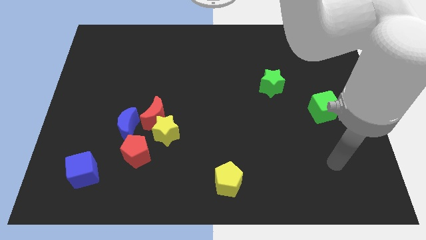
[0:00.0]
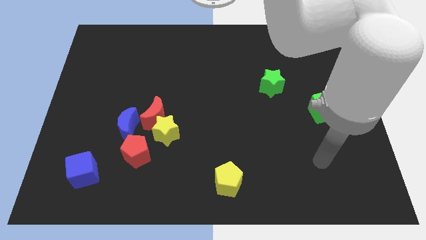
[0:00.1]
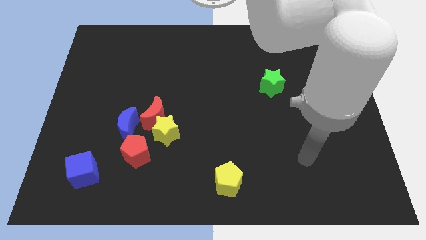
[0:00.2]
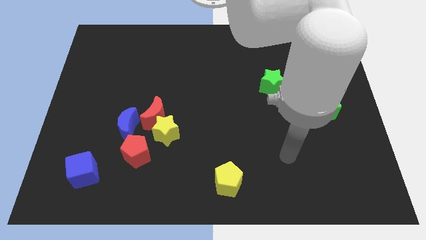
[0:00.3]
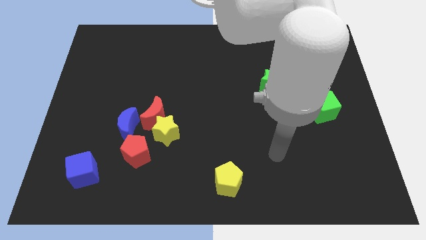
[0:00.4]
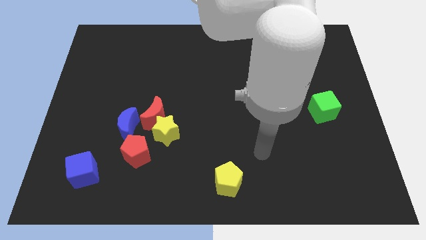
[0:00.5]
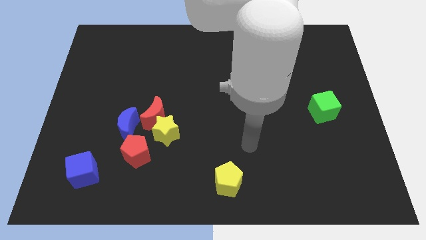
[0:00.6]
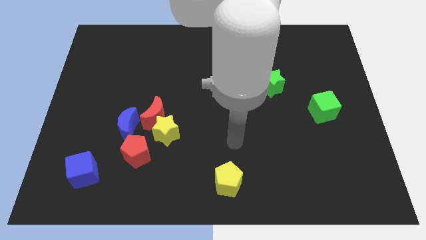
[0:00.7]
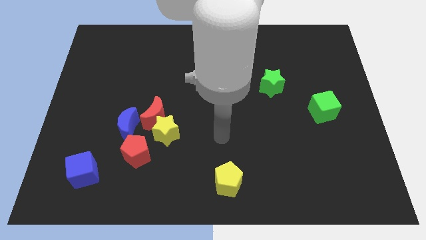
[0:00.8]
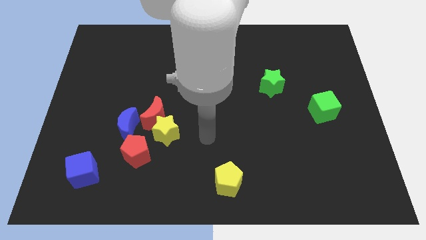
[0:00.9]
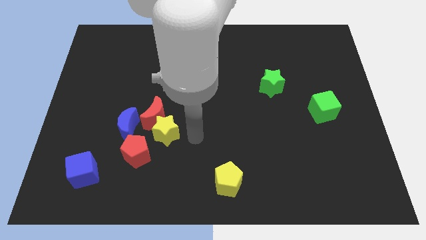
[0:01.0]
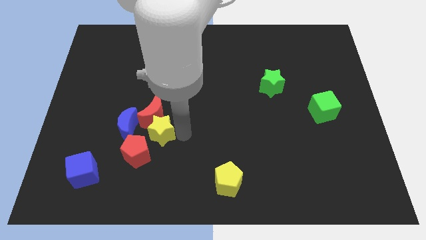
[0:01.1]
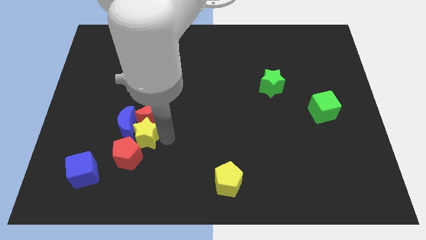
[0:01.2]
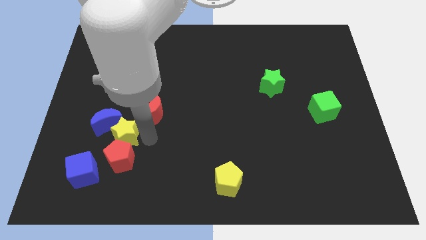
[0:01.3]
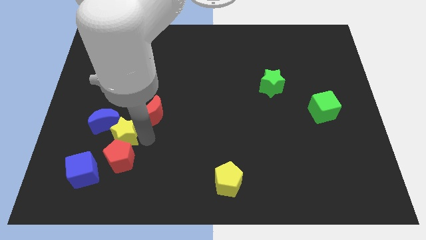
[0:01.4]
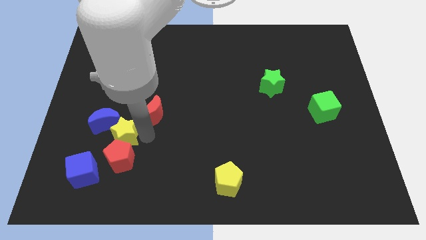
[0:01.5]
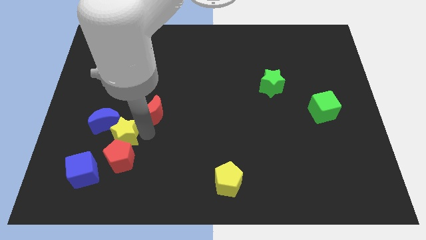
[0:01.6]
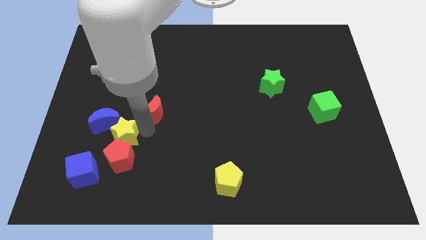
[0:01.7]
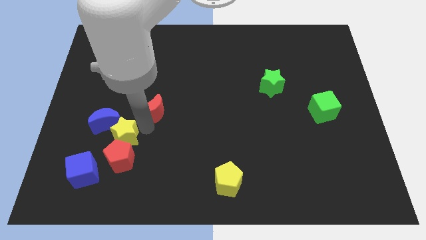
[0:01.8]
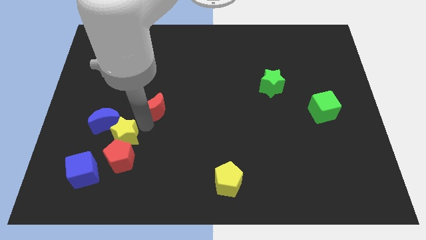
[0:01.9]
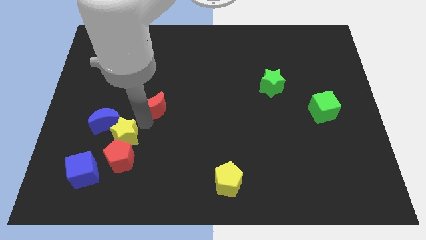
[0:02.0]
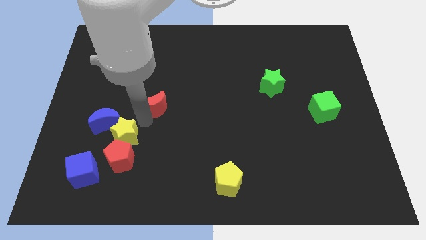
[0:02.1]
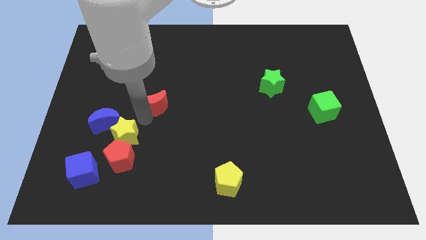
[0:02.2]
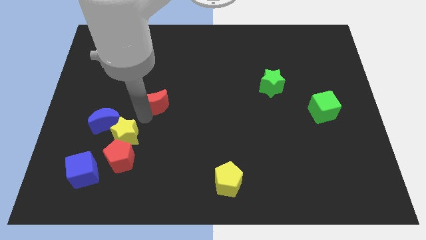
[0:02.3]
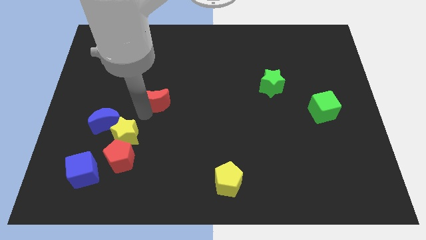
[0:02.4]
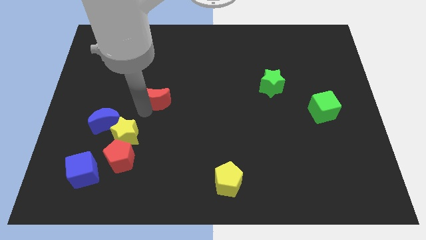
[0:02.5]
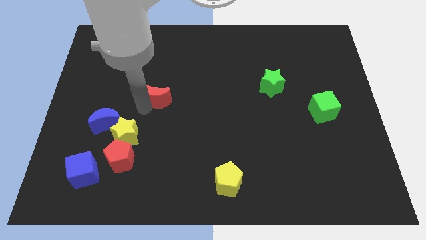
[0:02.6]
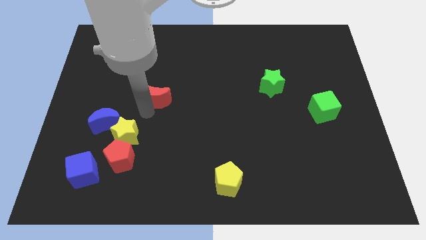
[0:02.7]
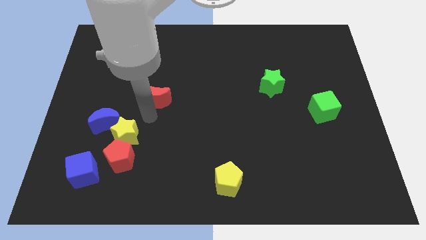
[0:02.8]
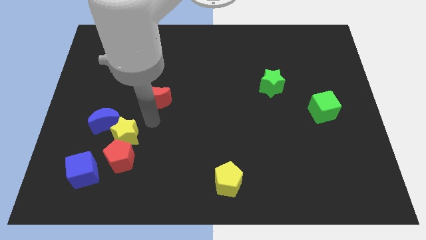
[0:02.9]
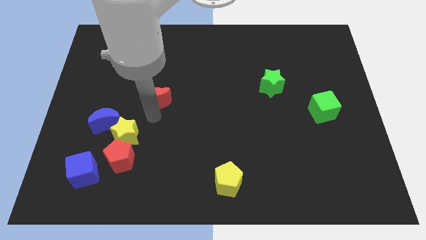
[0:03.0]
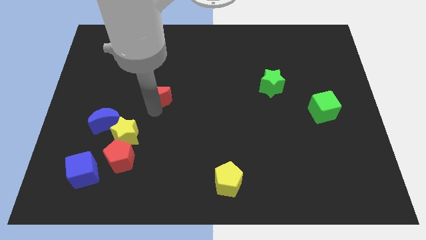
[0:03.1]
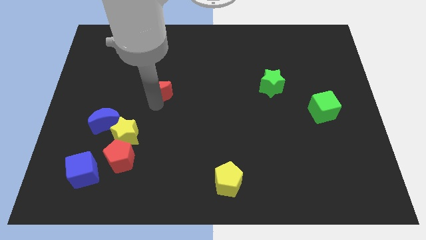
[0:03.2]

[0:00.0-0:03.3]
push the red moon upwards a little bit

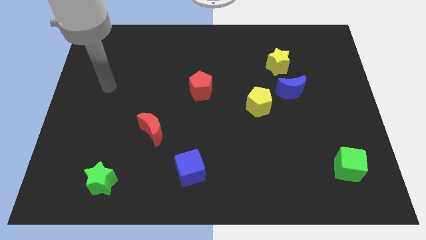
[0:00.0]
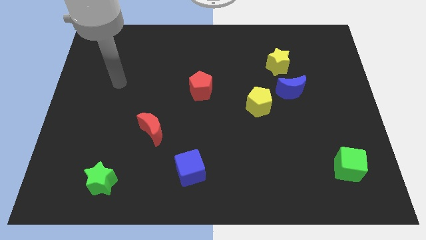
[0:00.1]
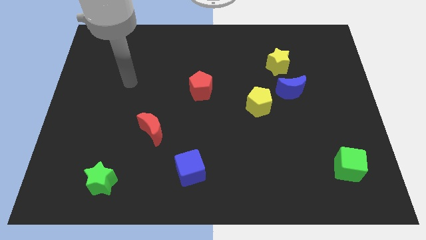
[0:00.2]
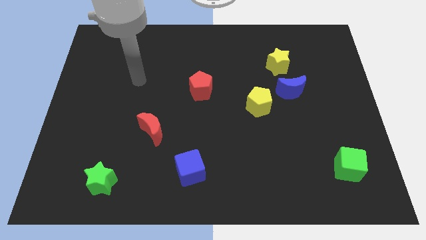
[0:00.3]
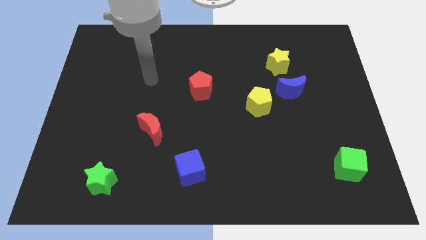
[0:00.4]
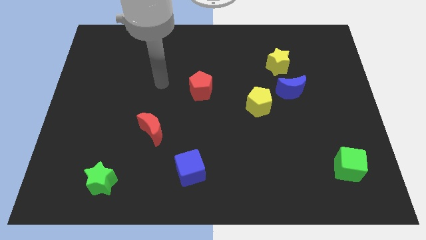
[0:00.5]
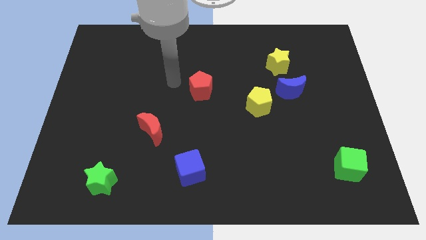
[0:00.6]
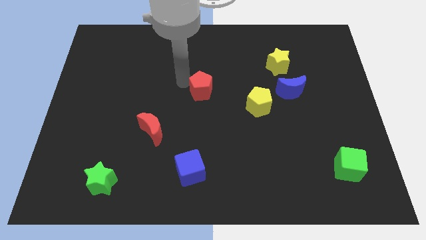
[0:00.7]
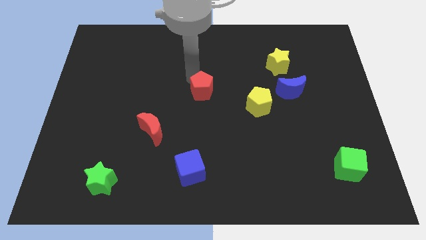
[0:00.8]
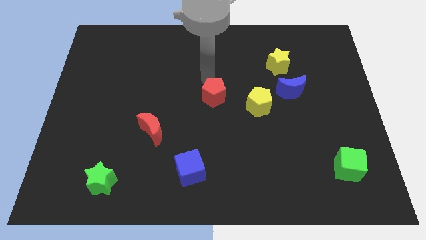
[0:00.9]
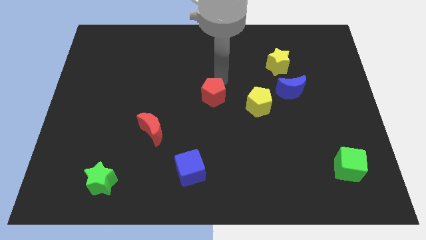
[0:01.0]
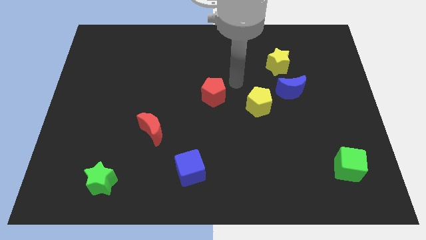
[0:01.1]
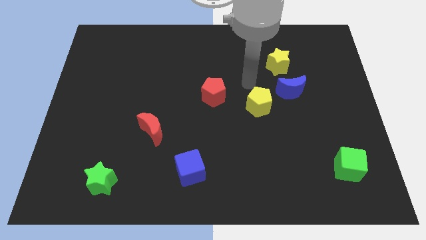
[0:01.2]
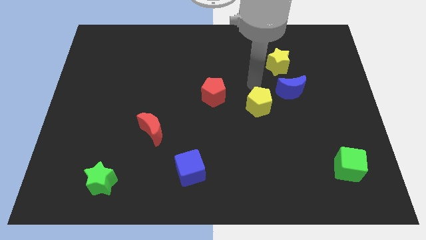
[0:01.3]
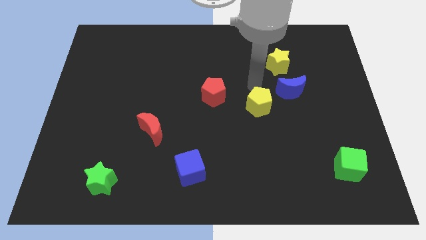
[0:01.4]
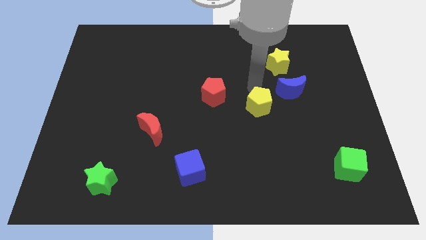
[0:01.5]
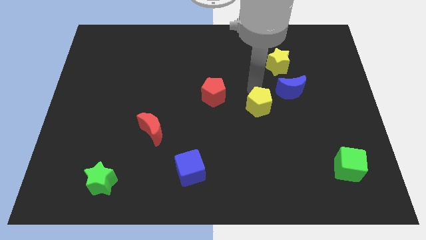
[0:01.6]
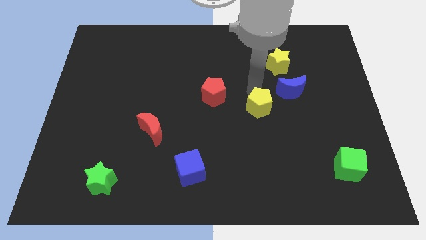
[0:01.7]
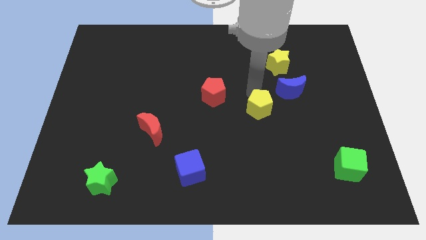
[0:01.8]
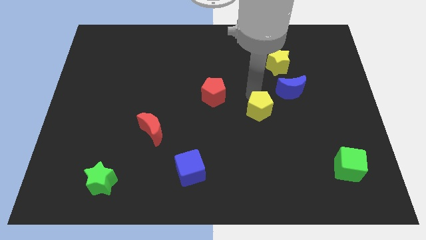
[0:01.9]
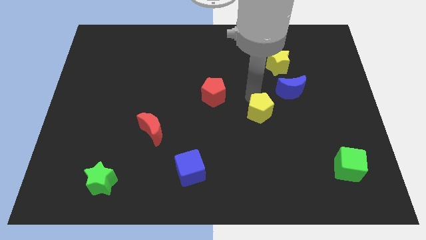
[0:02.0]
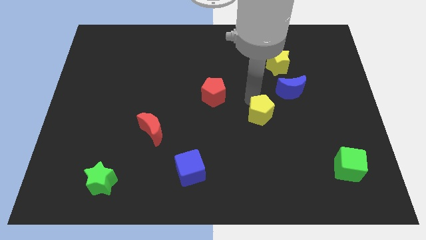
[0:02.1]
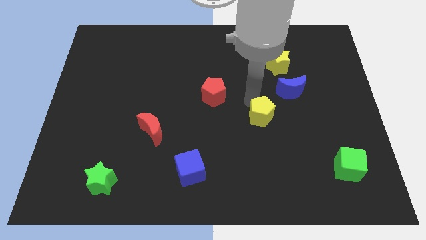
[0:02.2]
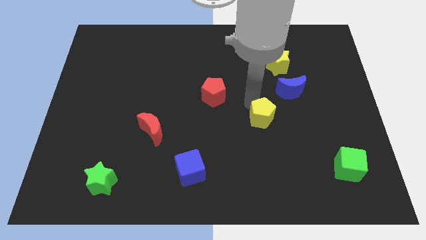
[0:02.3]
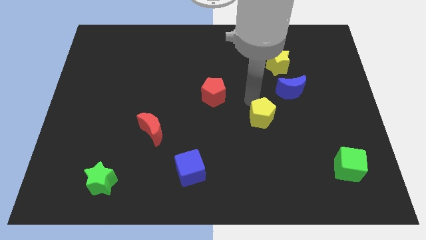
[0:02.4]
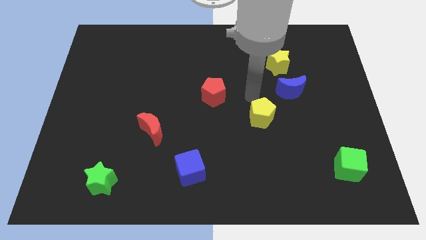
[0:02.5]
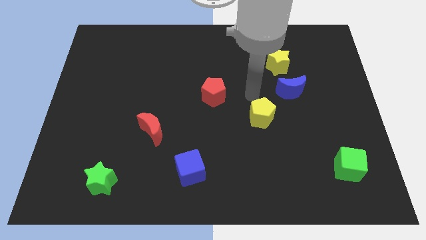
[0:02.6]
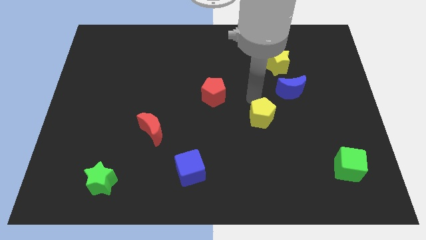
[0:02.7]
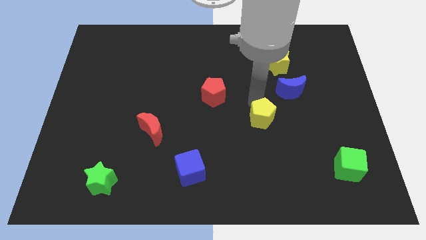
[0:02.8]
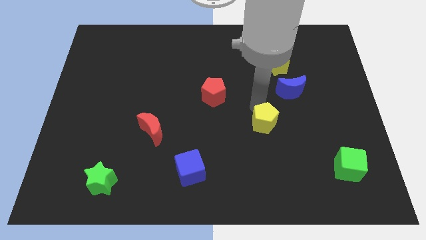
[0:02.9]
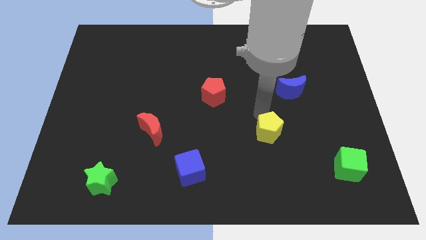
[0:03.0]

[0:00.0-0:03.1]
slightly move the yellow pentagon down

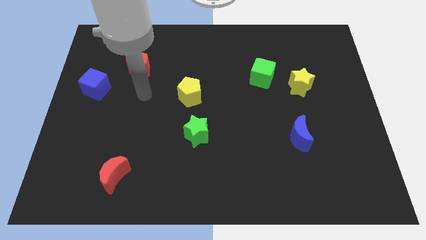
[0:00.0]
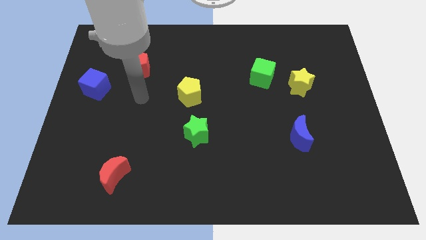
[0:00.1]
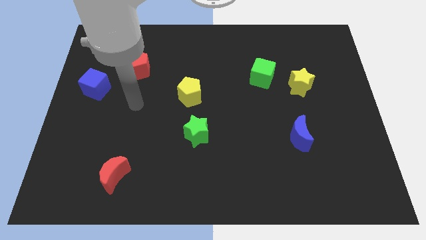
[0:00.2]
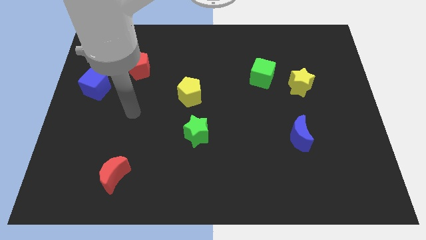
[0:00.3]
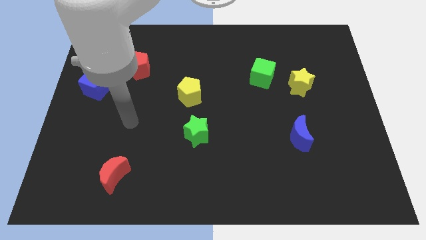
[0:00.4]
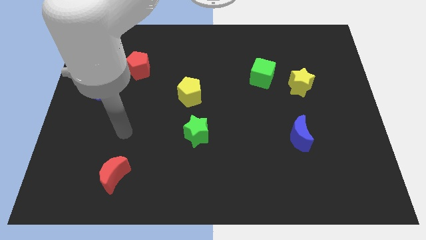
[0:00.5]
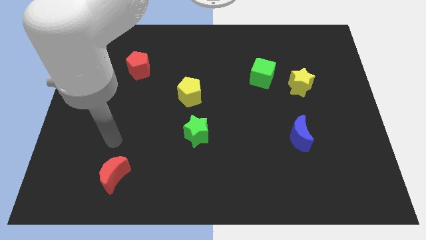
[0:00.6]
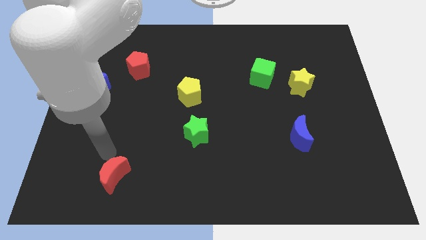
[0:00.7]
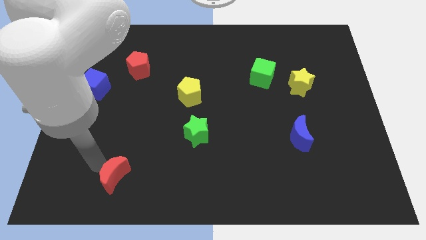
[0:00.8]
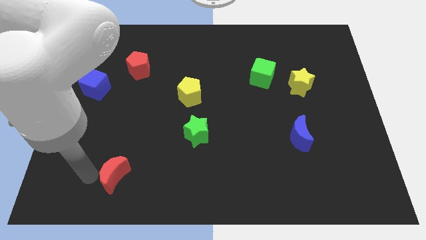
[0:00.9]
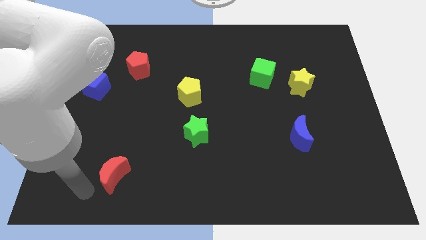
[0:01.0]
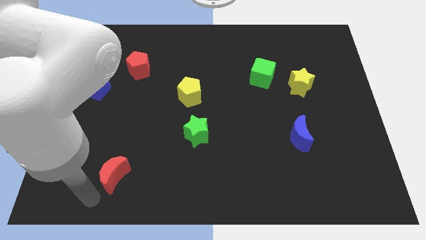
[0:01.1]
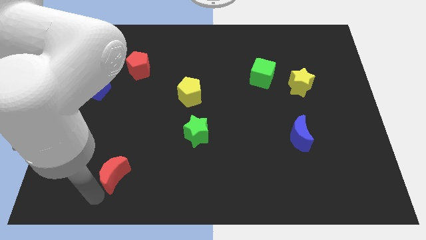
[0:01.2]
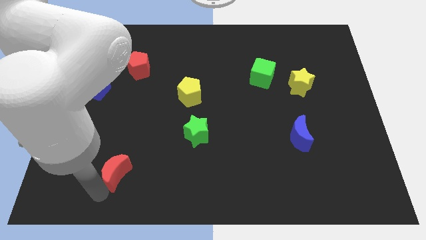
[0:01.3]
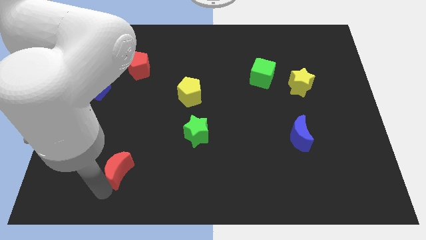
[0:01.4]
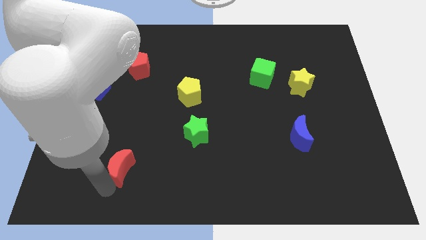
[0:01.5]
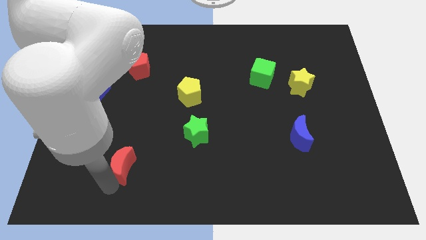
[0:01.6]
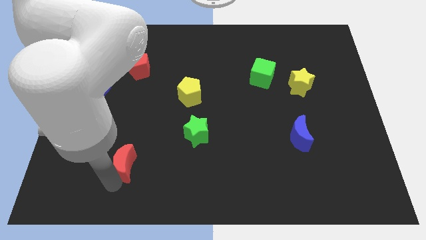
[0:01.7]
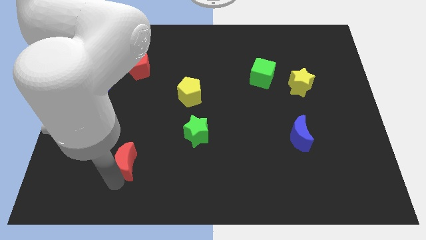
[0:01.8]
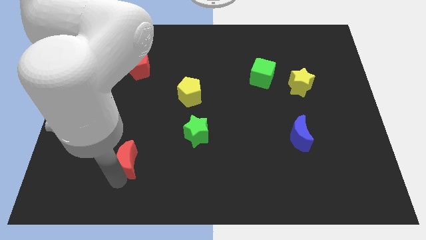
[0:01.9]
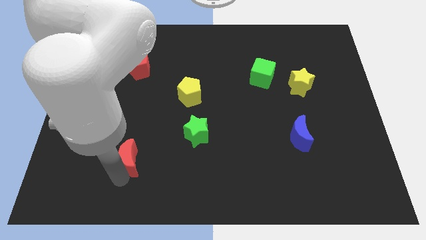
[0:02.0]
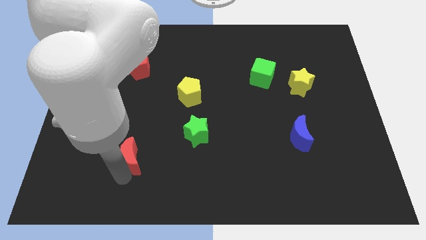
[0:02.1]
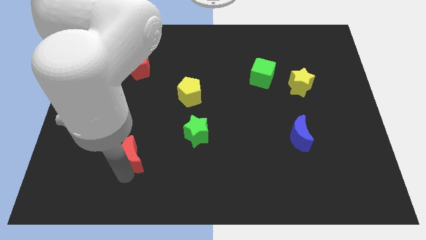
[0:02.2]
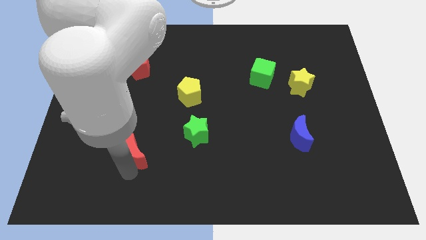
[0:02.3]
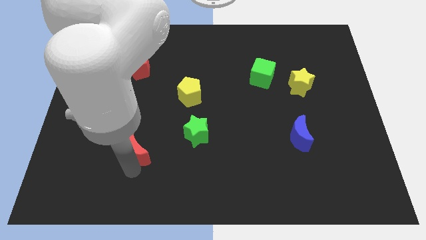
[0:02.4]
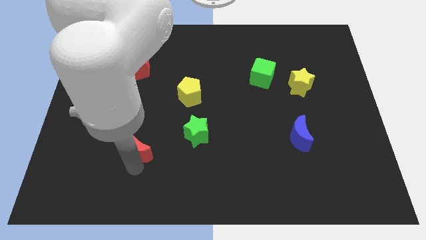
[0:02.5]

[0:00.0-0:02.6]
slightly move the red moon up and then right
